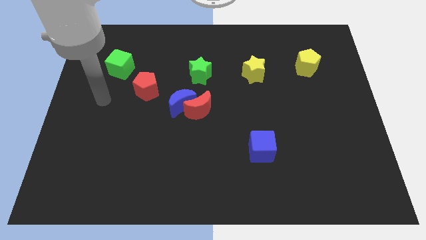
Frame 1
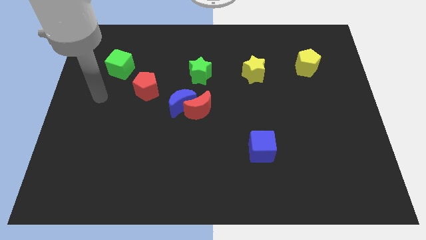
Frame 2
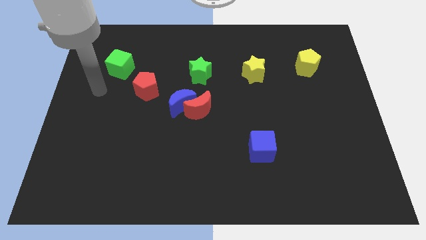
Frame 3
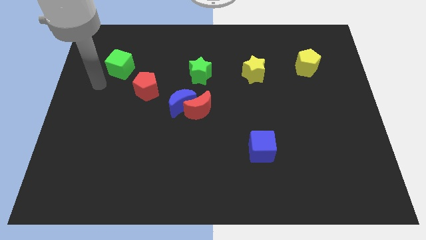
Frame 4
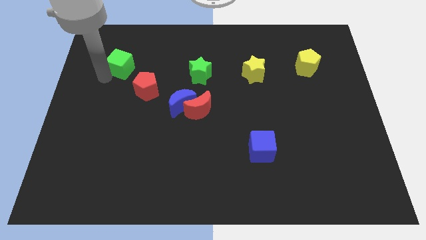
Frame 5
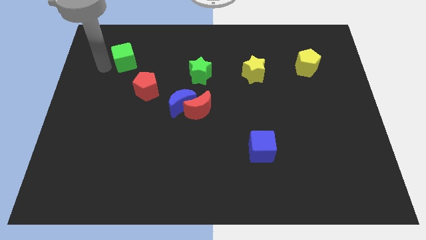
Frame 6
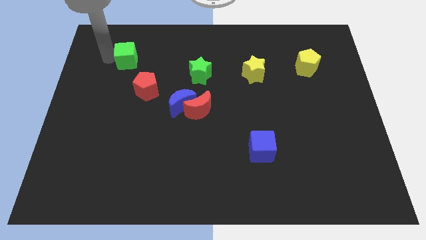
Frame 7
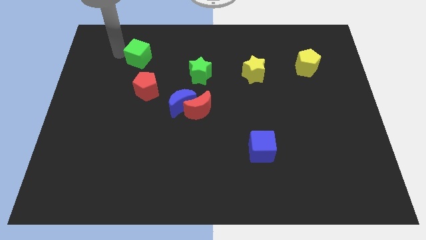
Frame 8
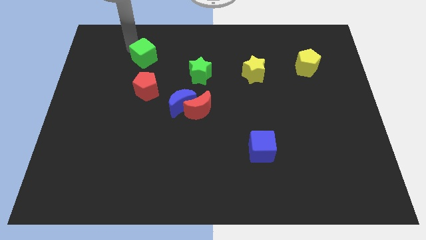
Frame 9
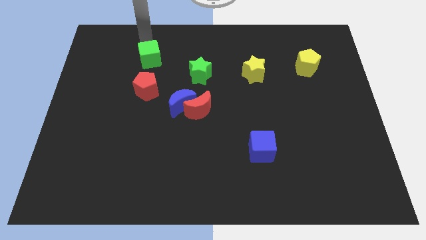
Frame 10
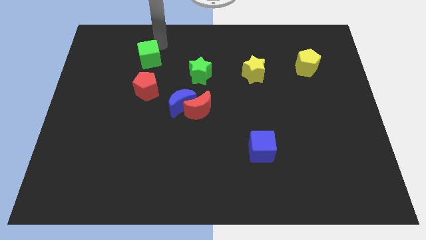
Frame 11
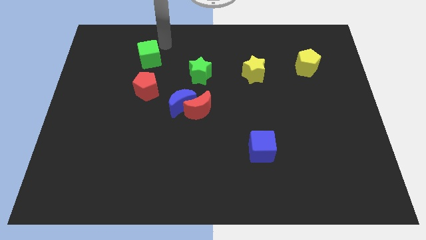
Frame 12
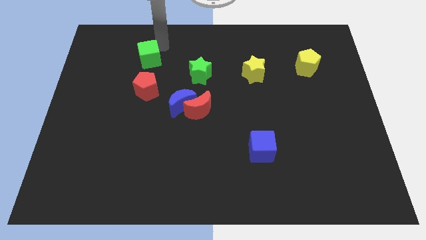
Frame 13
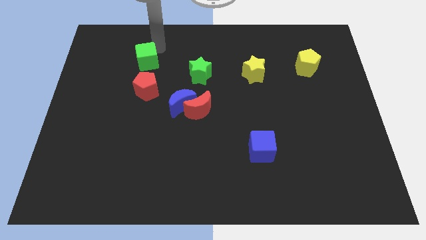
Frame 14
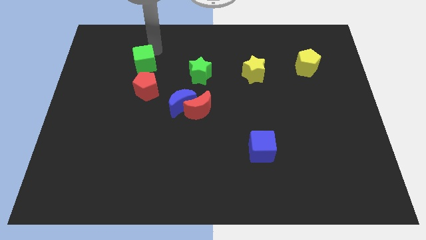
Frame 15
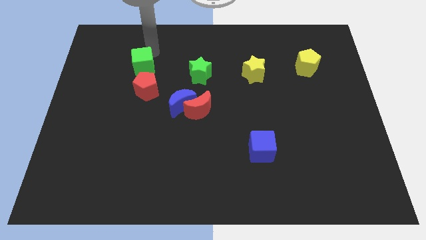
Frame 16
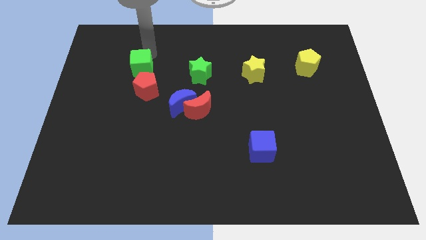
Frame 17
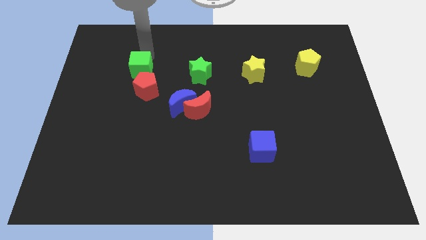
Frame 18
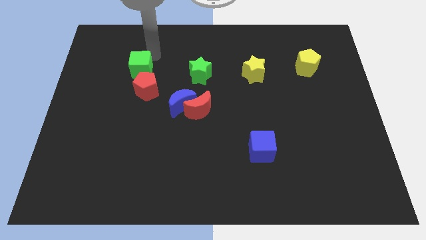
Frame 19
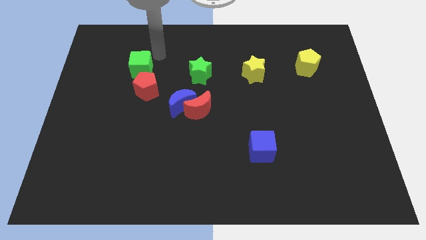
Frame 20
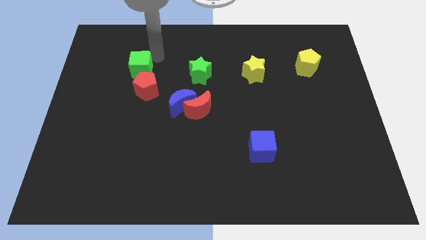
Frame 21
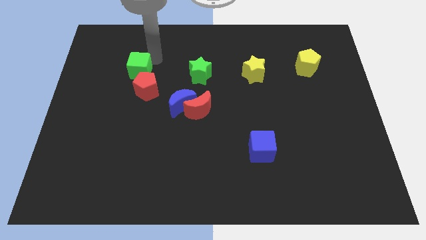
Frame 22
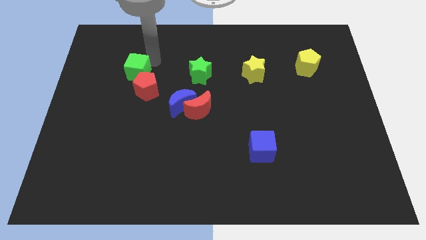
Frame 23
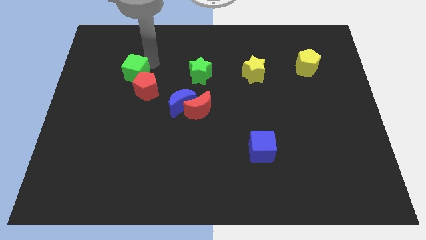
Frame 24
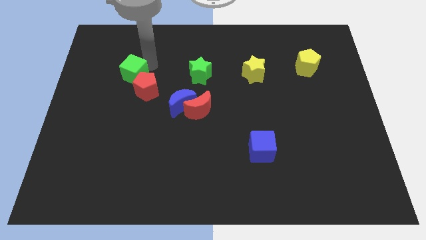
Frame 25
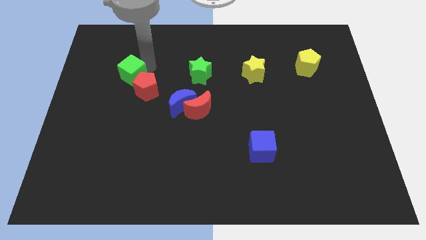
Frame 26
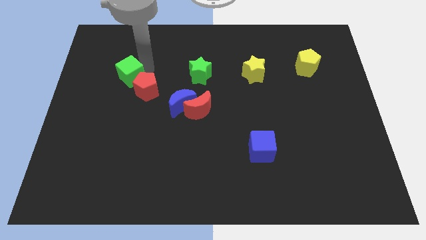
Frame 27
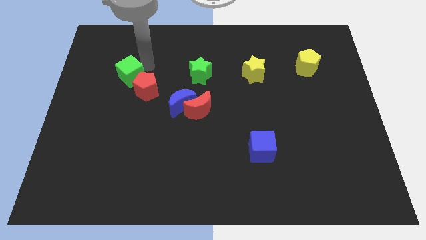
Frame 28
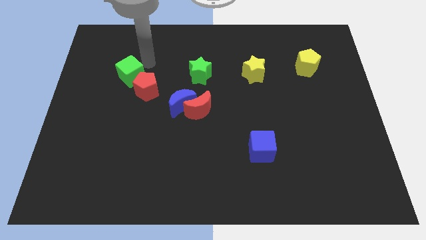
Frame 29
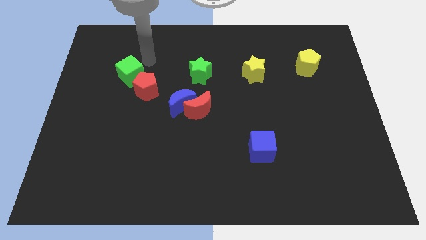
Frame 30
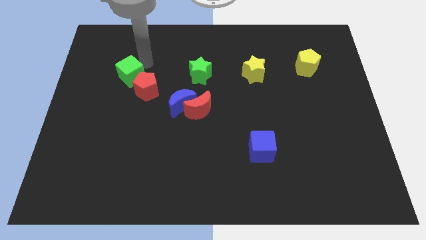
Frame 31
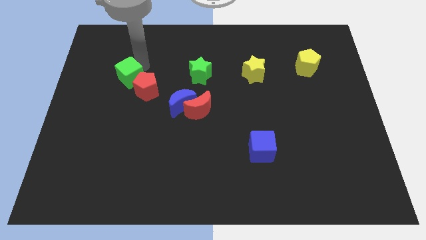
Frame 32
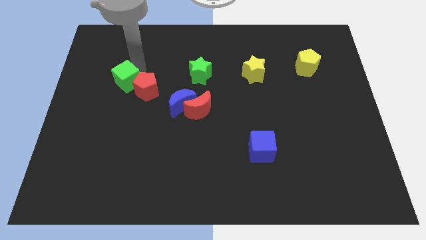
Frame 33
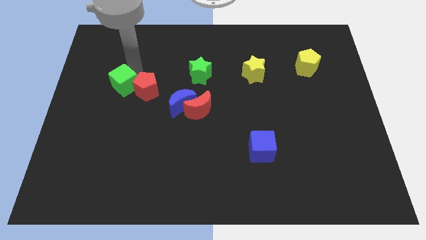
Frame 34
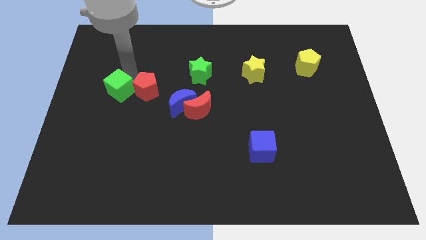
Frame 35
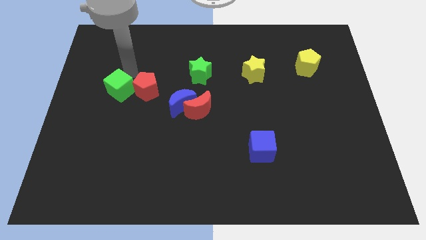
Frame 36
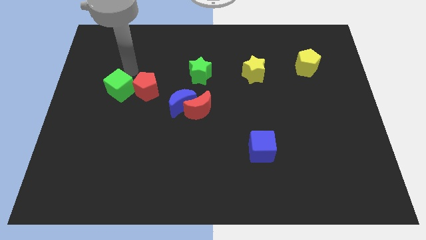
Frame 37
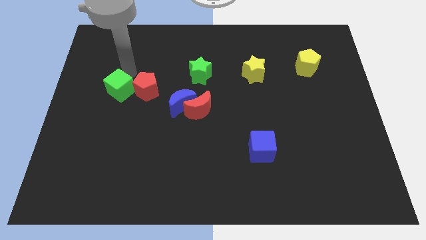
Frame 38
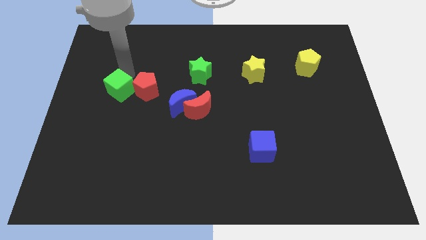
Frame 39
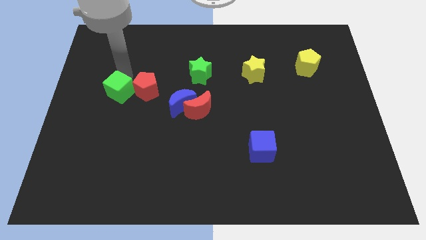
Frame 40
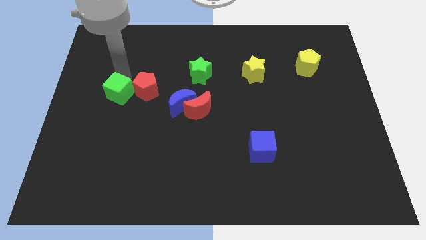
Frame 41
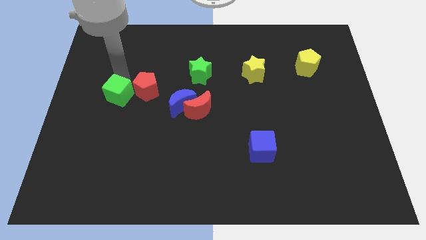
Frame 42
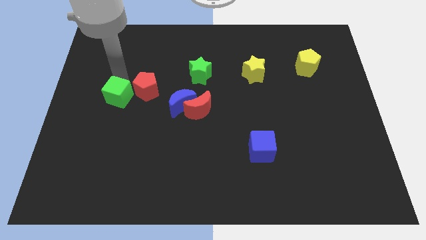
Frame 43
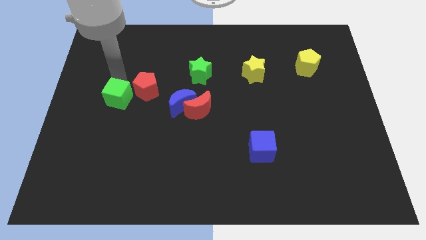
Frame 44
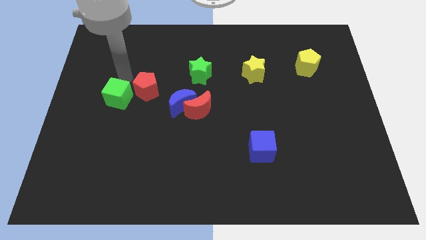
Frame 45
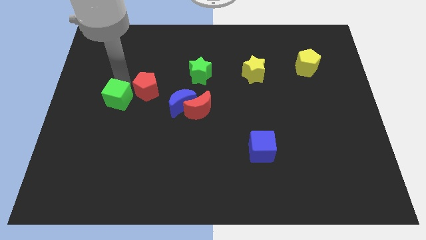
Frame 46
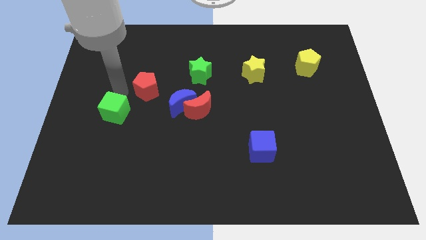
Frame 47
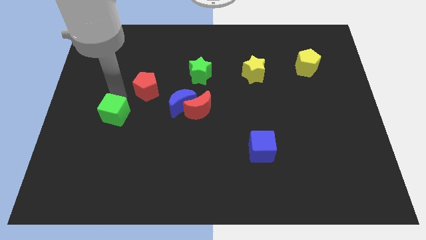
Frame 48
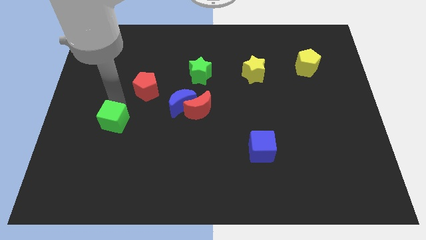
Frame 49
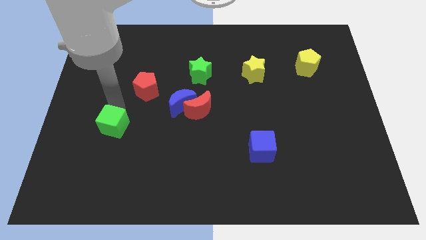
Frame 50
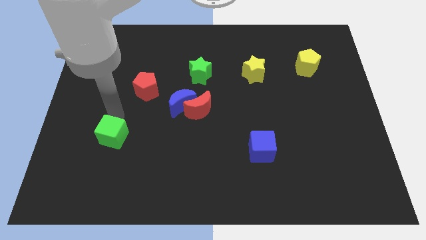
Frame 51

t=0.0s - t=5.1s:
push the green cube down

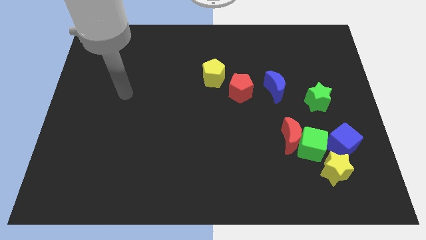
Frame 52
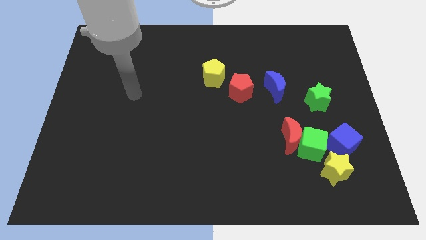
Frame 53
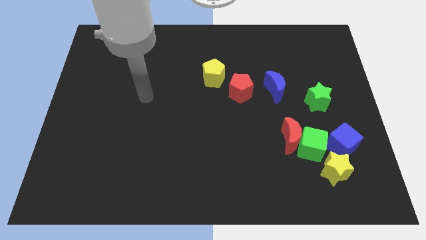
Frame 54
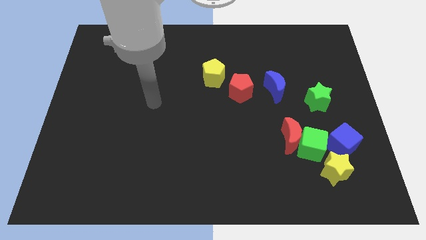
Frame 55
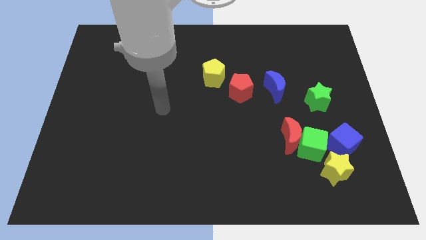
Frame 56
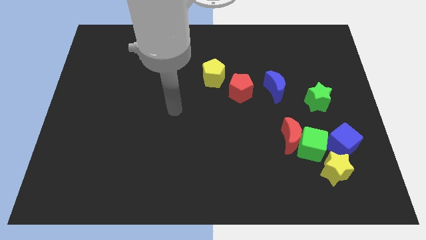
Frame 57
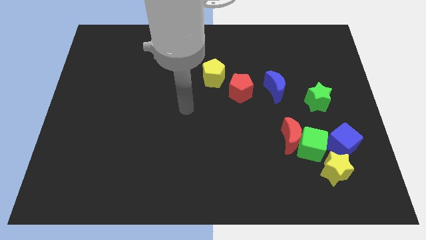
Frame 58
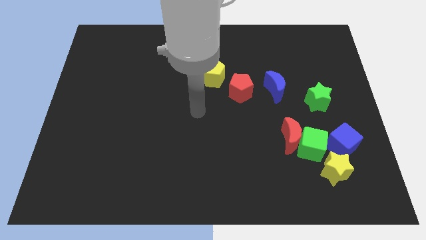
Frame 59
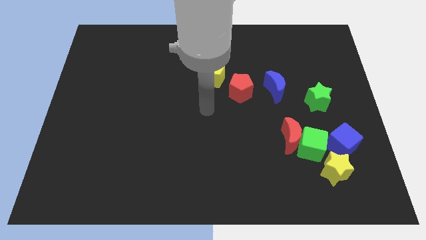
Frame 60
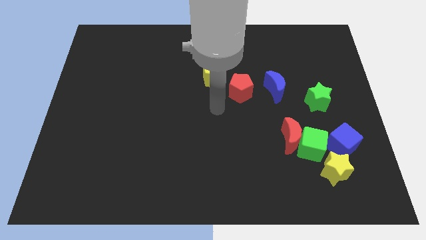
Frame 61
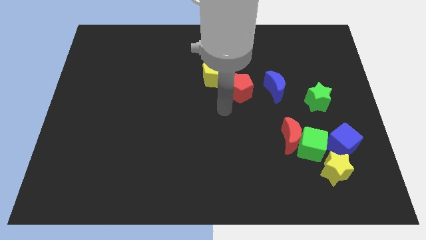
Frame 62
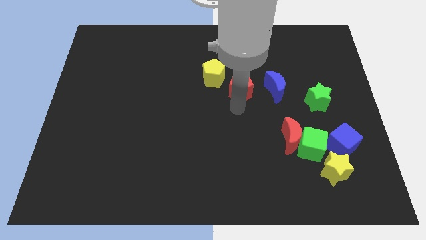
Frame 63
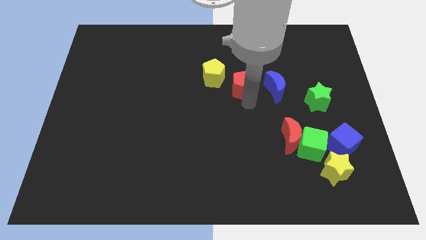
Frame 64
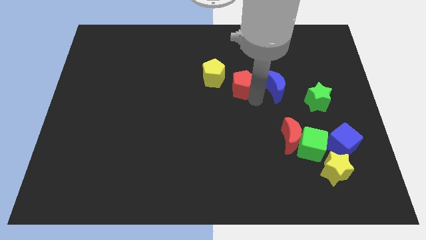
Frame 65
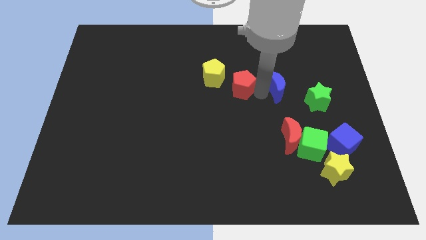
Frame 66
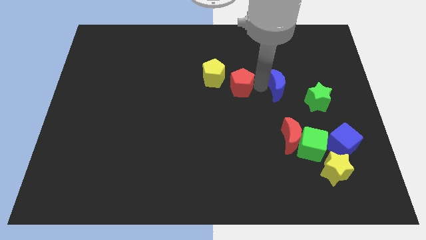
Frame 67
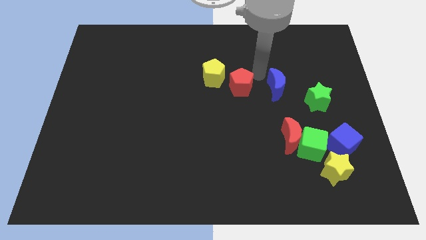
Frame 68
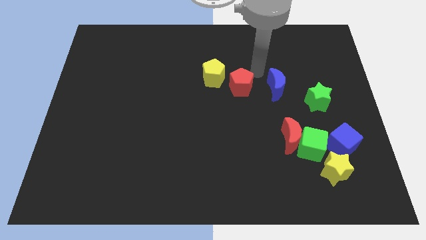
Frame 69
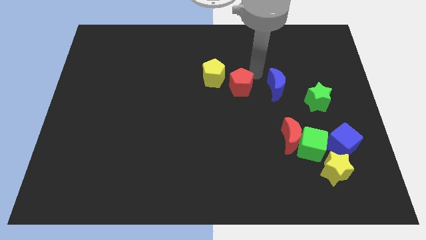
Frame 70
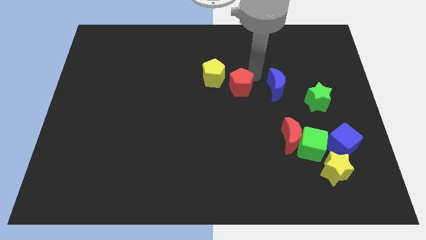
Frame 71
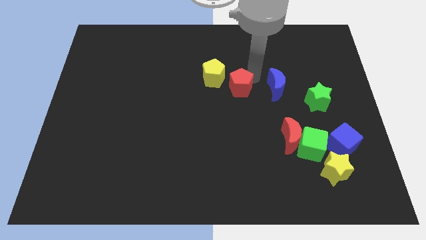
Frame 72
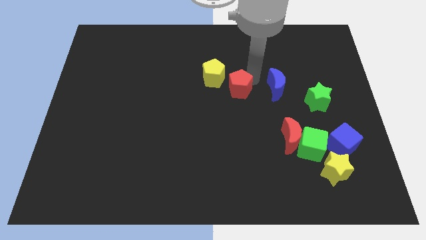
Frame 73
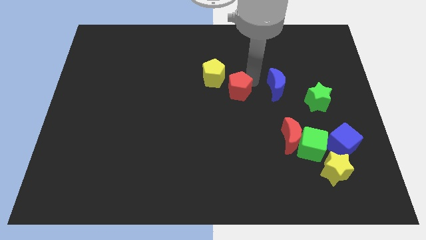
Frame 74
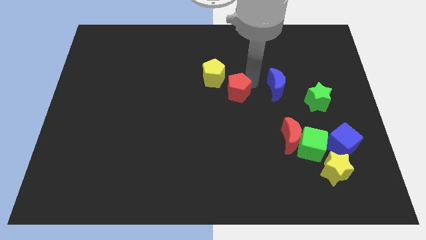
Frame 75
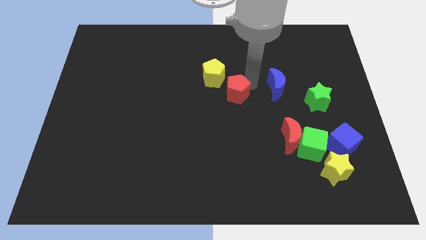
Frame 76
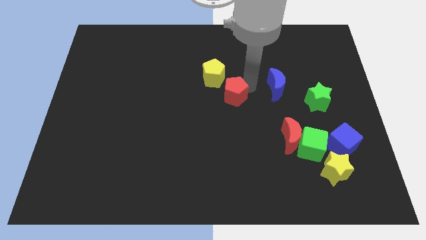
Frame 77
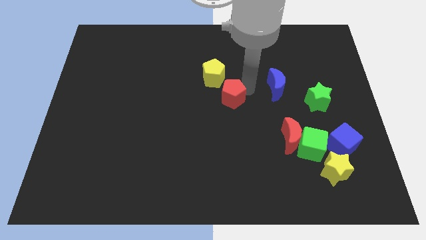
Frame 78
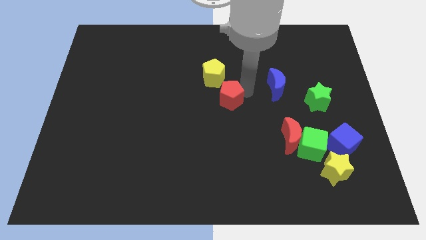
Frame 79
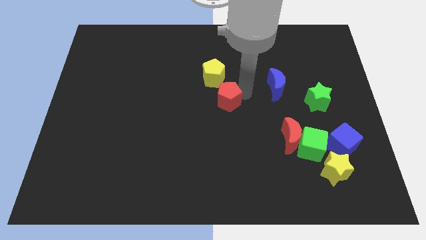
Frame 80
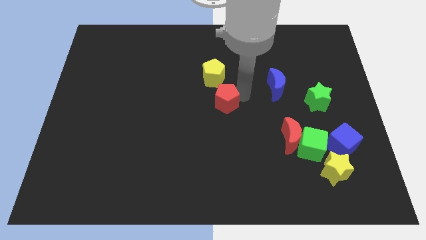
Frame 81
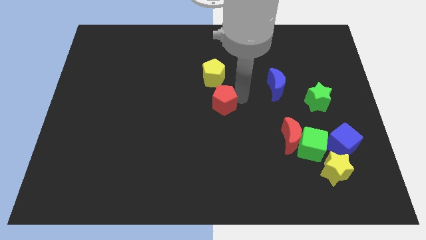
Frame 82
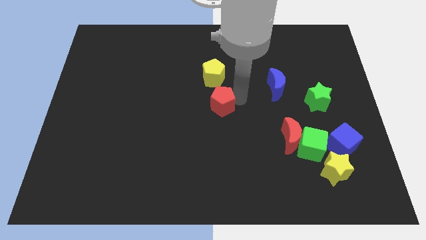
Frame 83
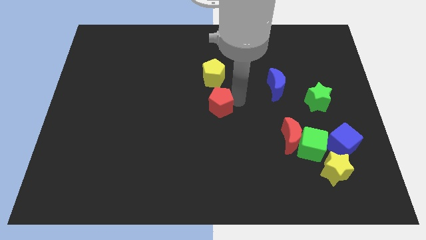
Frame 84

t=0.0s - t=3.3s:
slightly move the red pentagon downwards and to the left

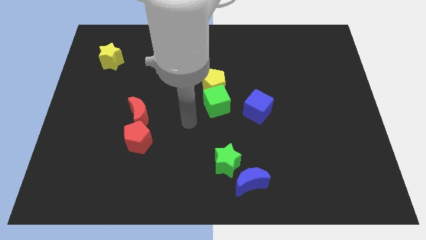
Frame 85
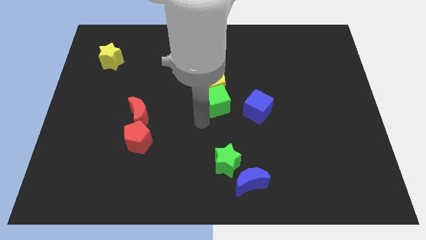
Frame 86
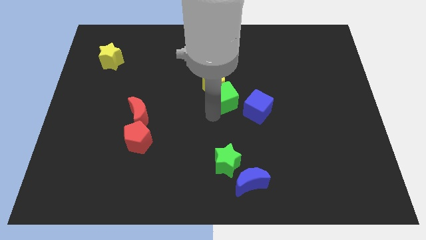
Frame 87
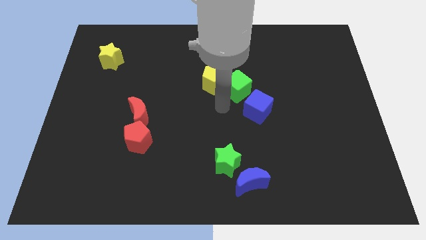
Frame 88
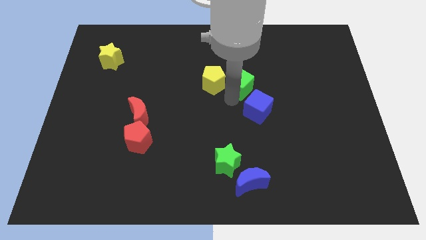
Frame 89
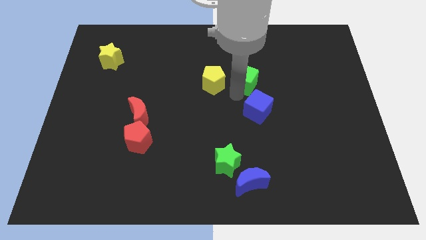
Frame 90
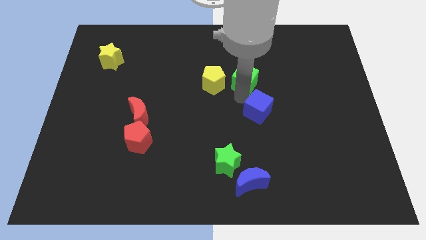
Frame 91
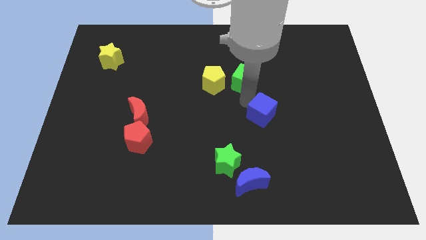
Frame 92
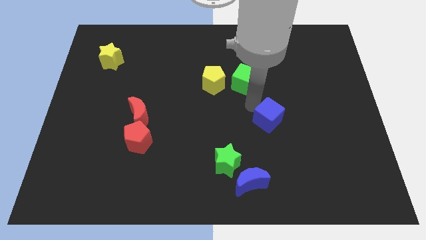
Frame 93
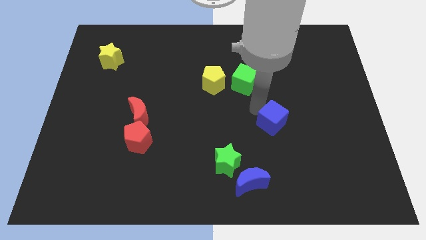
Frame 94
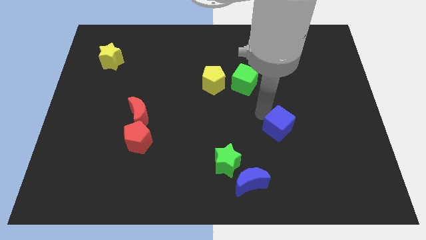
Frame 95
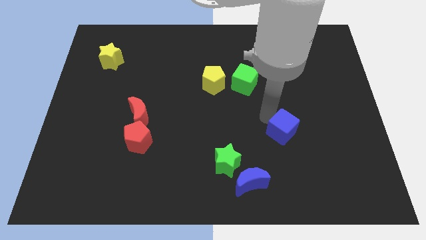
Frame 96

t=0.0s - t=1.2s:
slightly push the blue cube downwards and to the right
